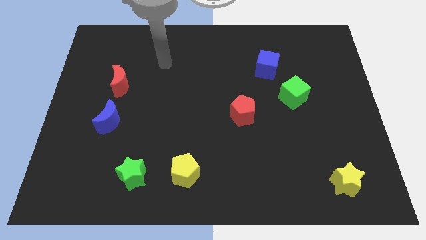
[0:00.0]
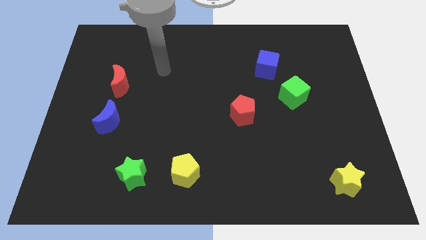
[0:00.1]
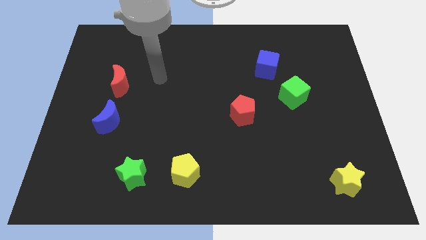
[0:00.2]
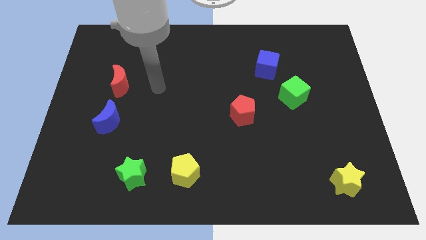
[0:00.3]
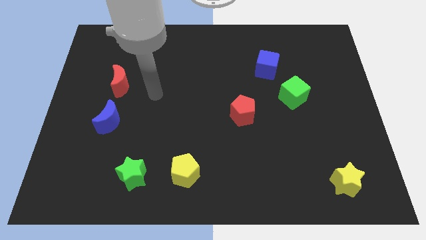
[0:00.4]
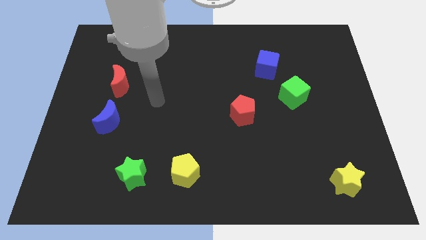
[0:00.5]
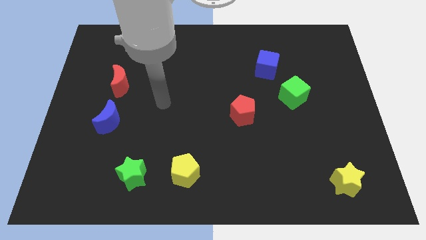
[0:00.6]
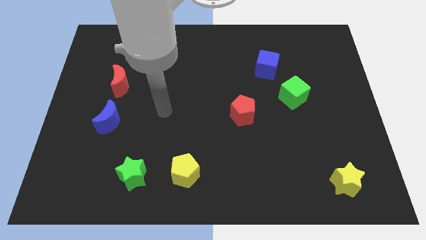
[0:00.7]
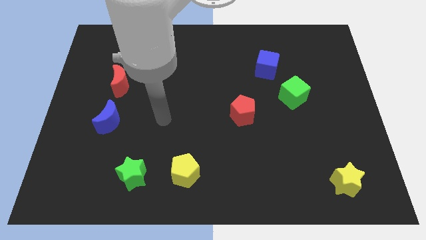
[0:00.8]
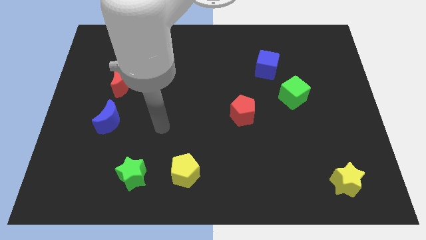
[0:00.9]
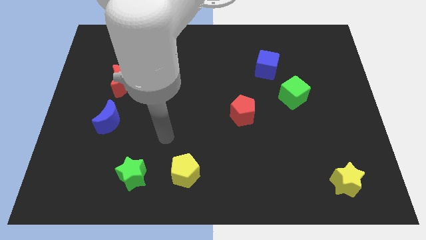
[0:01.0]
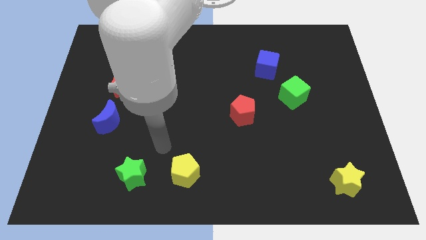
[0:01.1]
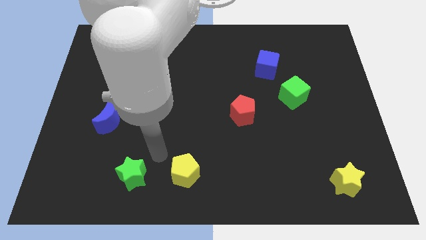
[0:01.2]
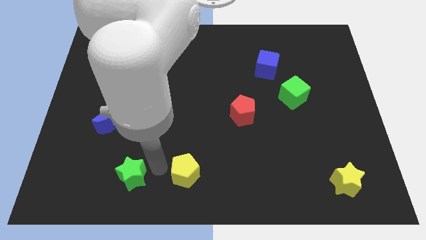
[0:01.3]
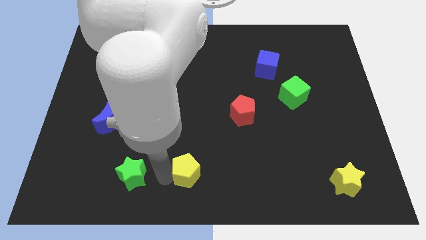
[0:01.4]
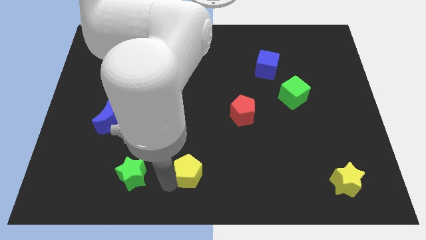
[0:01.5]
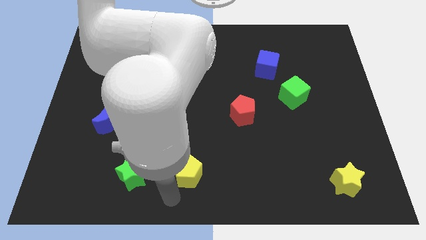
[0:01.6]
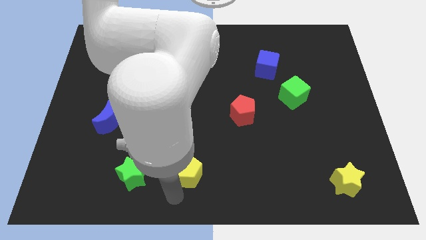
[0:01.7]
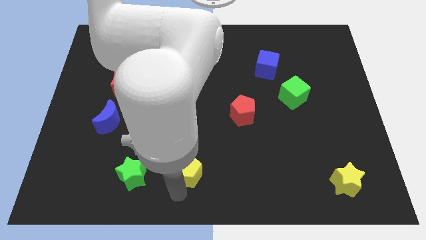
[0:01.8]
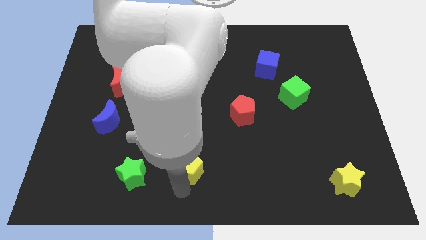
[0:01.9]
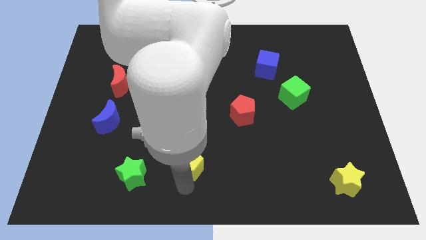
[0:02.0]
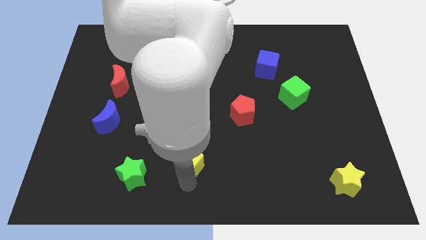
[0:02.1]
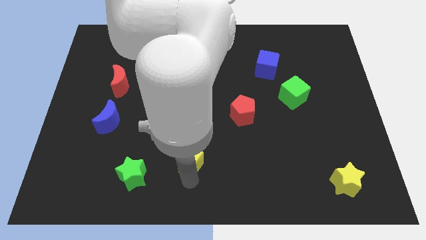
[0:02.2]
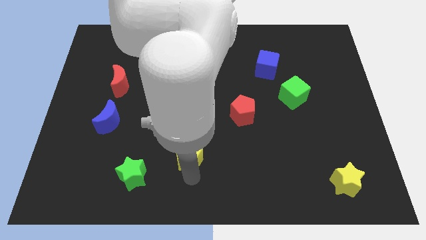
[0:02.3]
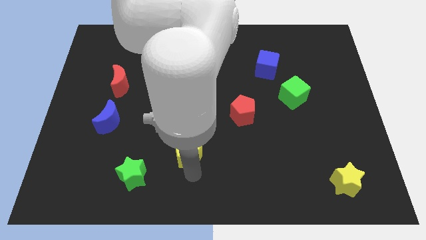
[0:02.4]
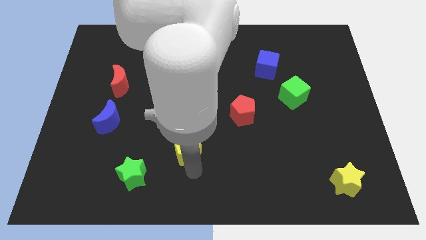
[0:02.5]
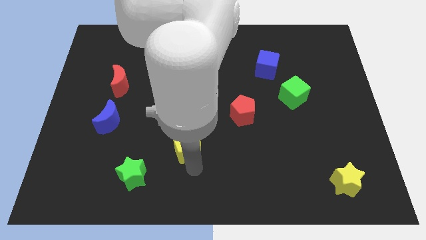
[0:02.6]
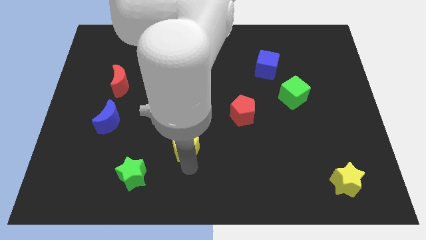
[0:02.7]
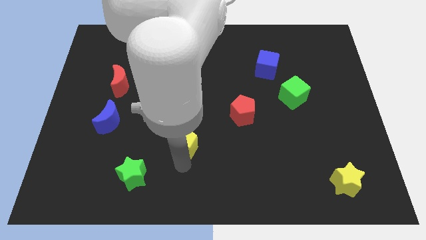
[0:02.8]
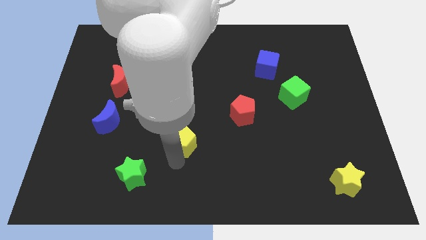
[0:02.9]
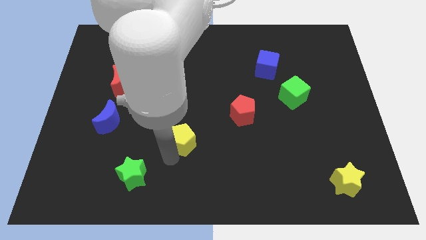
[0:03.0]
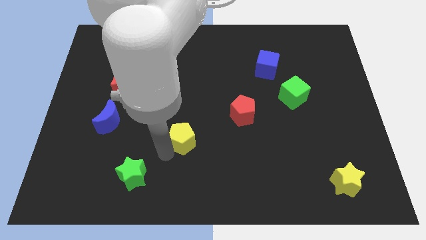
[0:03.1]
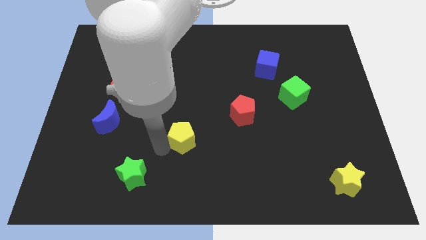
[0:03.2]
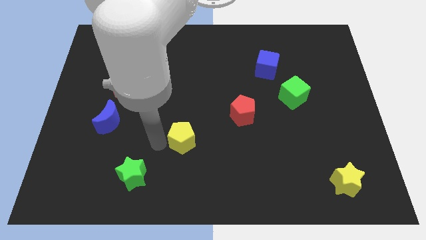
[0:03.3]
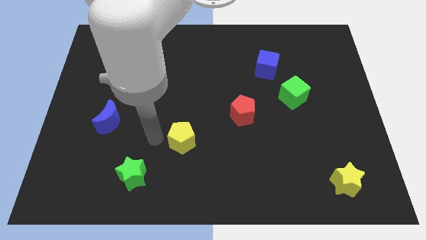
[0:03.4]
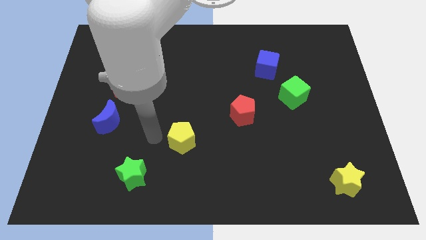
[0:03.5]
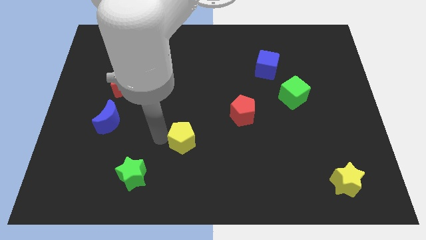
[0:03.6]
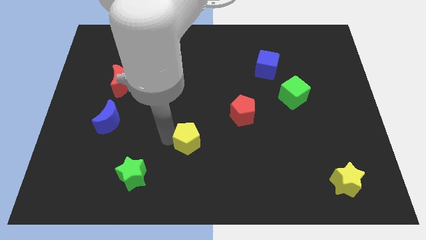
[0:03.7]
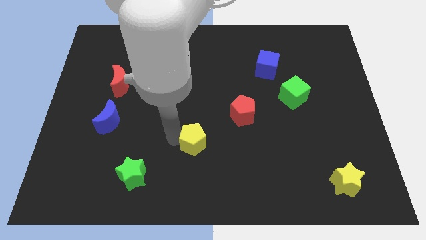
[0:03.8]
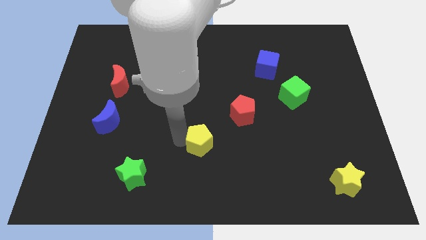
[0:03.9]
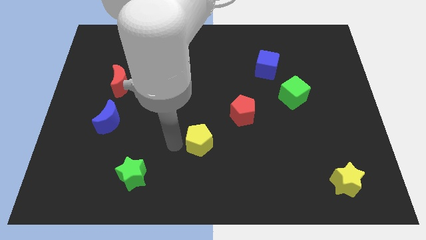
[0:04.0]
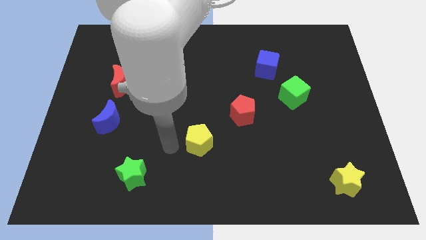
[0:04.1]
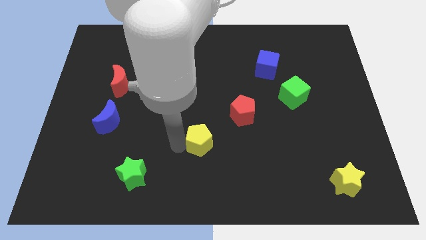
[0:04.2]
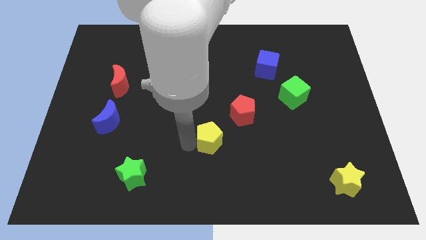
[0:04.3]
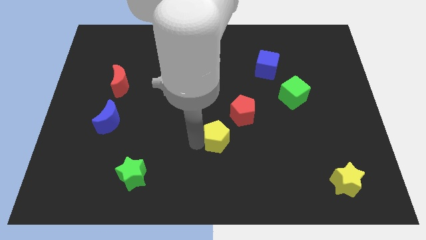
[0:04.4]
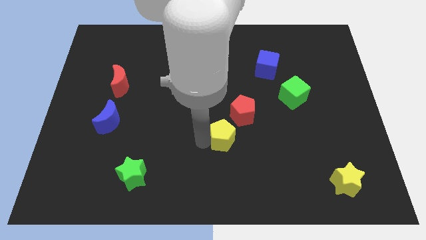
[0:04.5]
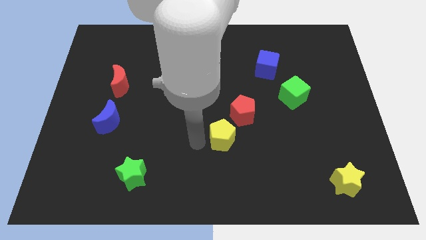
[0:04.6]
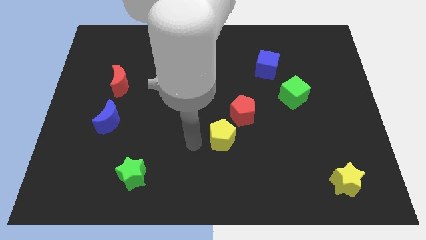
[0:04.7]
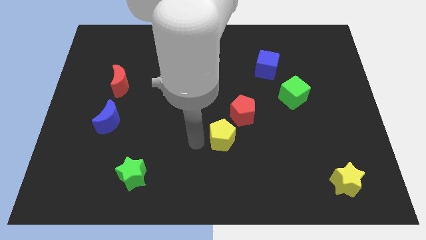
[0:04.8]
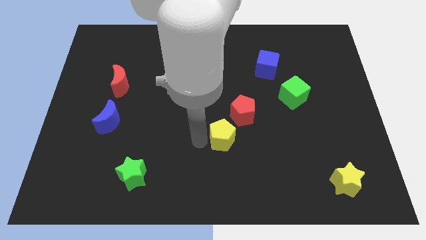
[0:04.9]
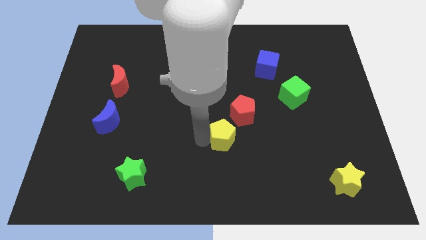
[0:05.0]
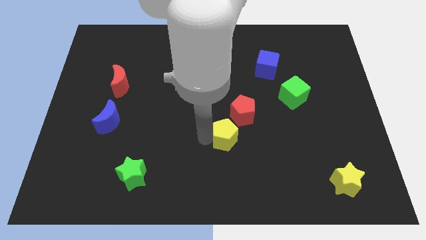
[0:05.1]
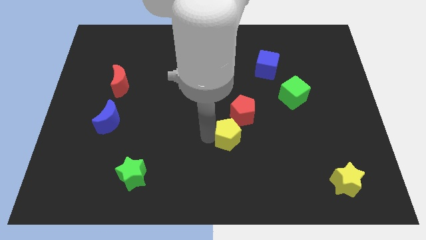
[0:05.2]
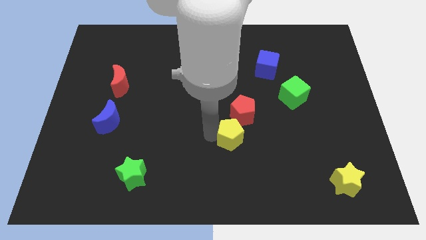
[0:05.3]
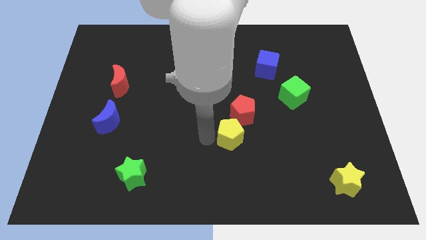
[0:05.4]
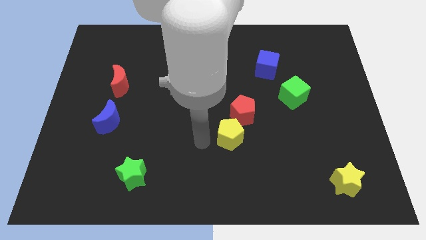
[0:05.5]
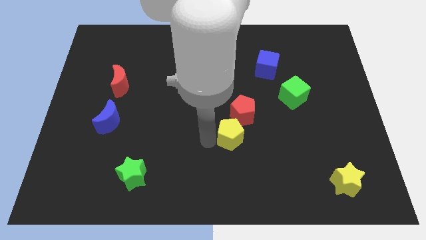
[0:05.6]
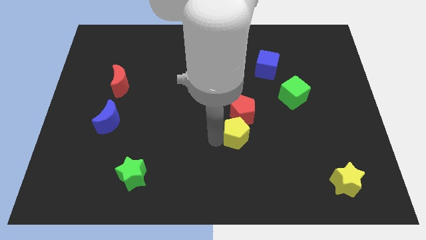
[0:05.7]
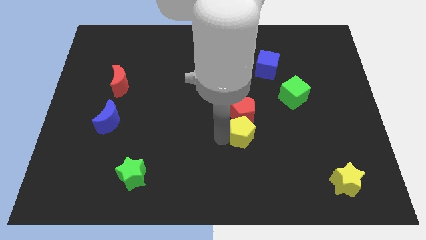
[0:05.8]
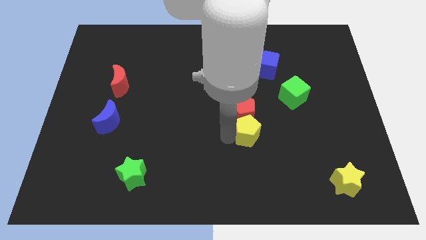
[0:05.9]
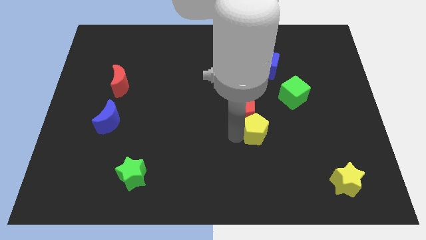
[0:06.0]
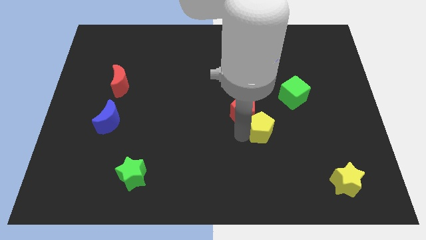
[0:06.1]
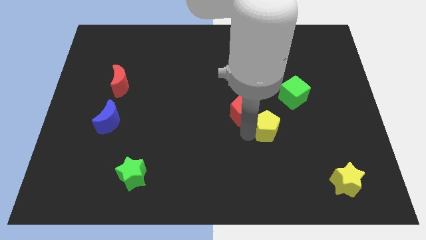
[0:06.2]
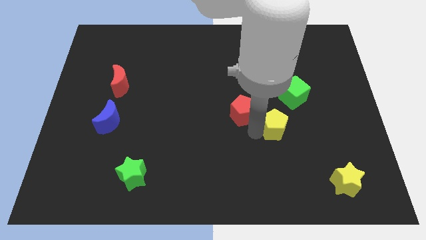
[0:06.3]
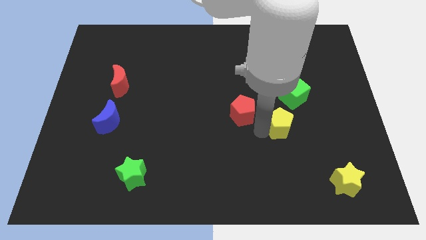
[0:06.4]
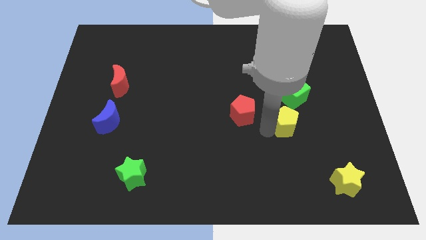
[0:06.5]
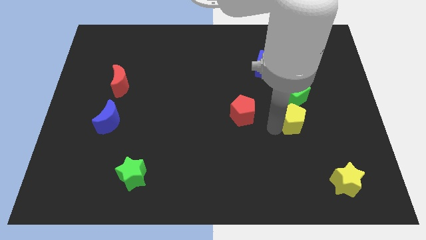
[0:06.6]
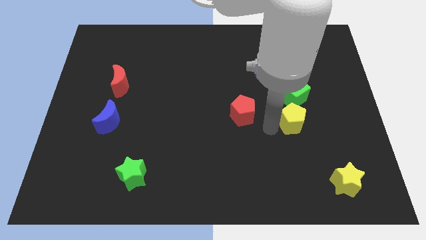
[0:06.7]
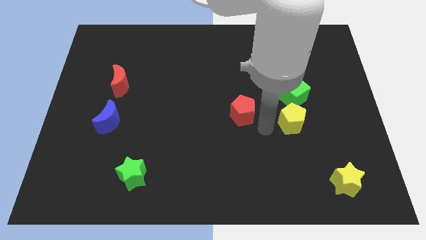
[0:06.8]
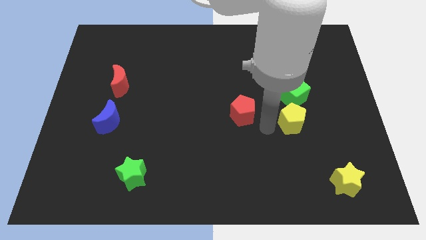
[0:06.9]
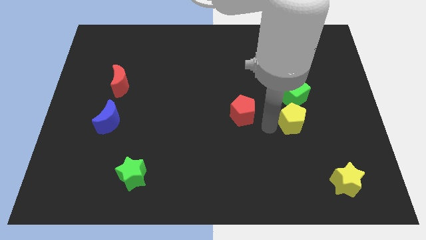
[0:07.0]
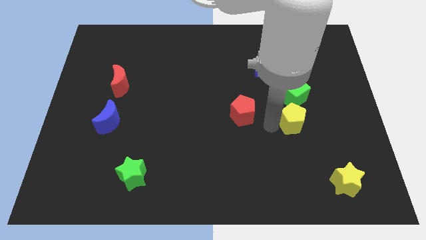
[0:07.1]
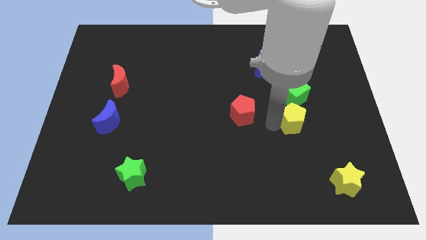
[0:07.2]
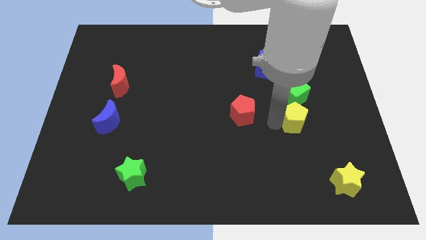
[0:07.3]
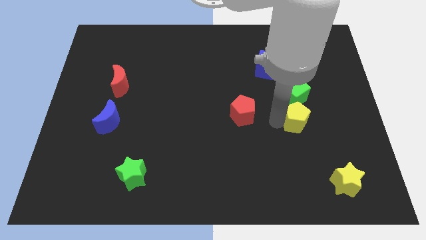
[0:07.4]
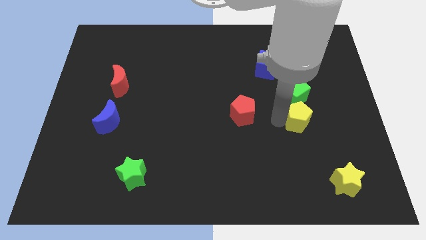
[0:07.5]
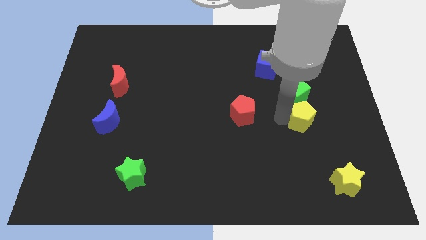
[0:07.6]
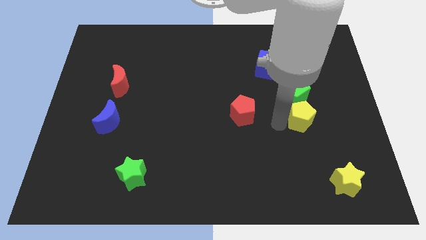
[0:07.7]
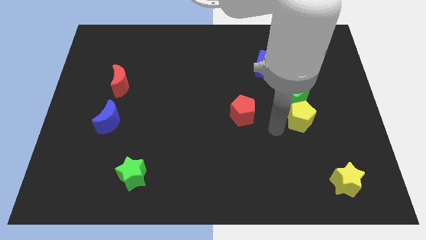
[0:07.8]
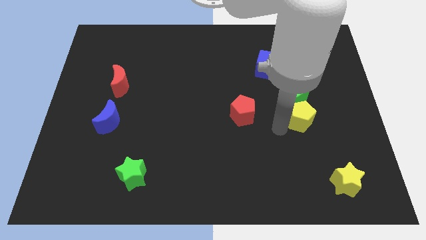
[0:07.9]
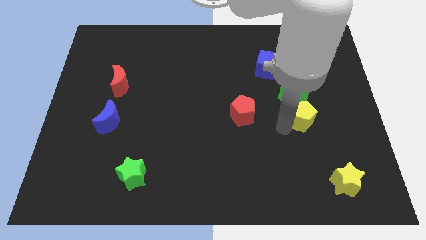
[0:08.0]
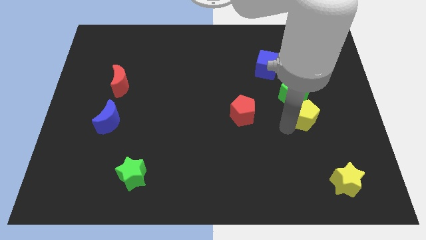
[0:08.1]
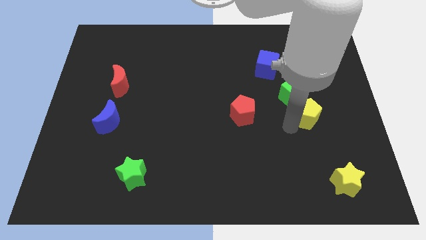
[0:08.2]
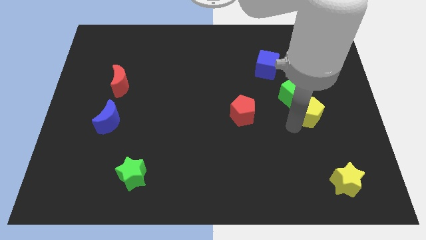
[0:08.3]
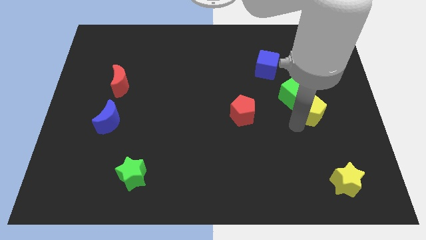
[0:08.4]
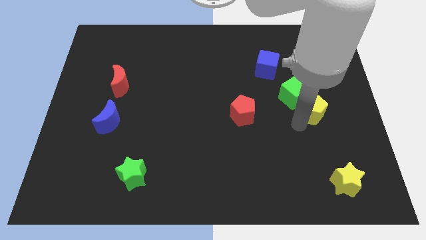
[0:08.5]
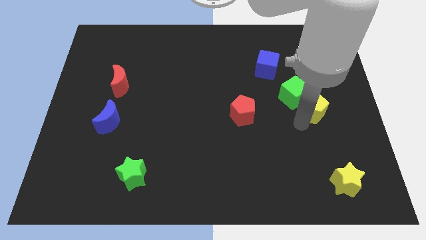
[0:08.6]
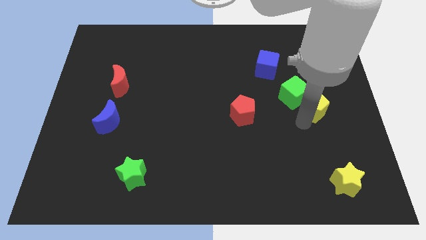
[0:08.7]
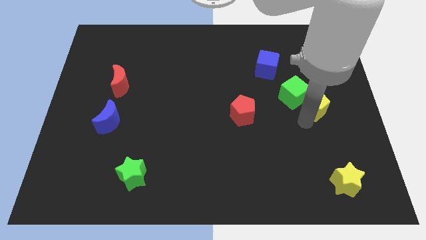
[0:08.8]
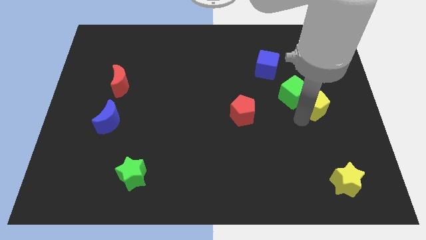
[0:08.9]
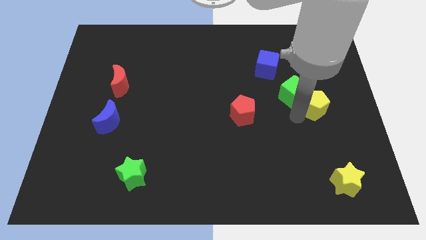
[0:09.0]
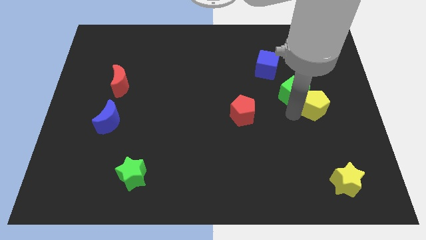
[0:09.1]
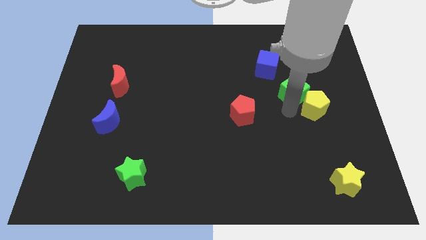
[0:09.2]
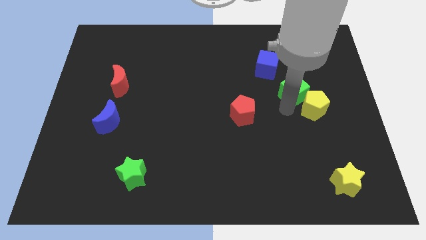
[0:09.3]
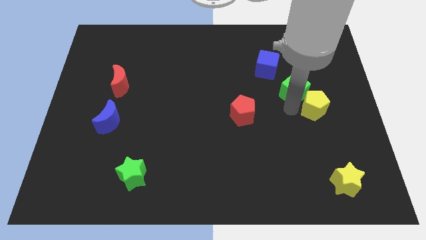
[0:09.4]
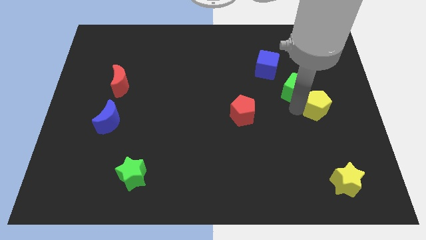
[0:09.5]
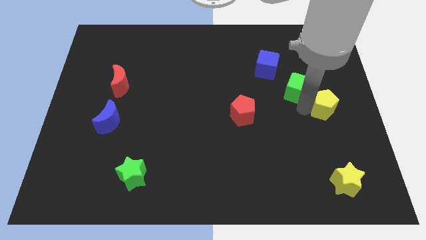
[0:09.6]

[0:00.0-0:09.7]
put the yellow pentagon to the right side of the board
